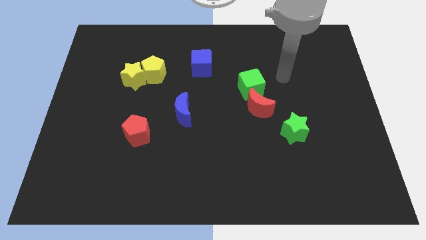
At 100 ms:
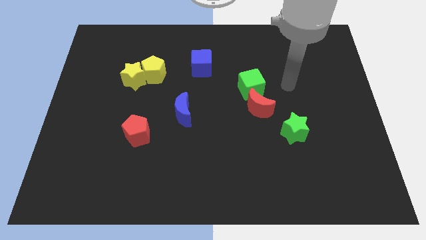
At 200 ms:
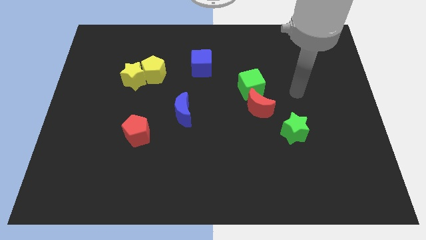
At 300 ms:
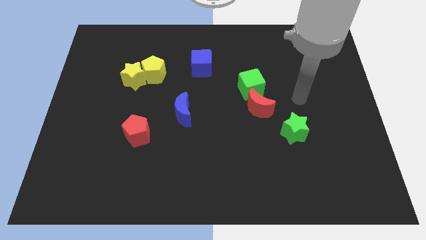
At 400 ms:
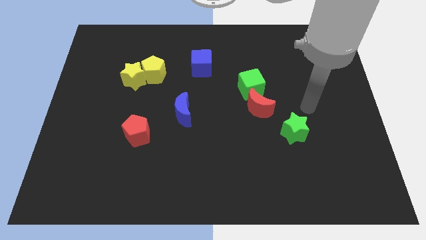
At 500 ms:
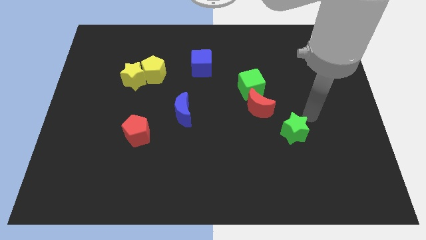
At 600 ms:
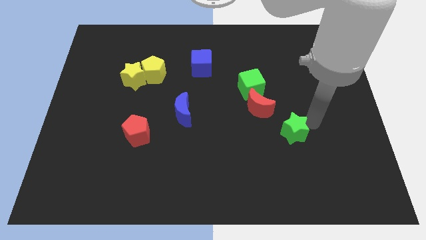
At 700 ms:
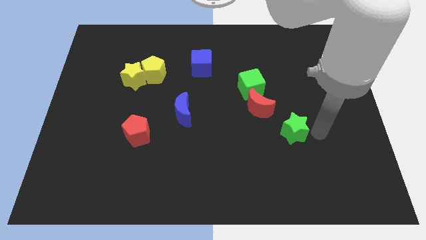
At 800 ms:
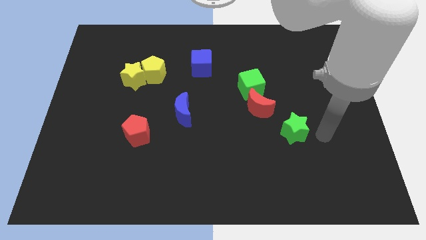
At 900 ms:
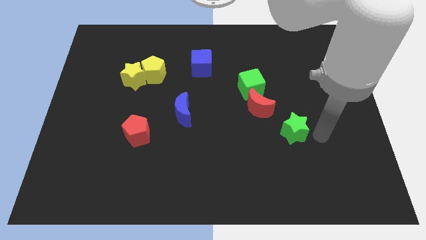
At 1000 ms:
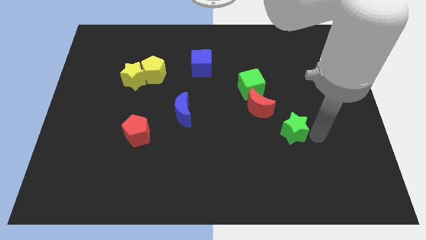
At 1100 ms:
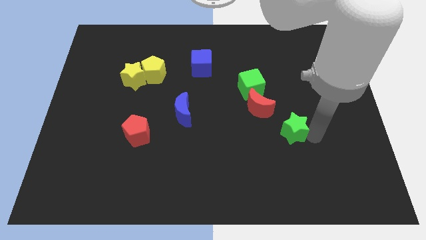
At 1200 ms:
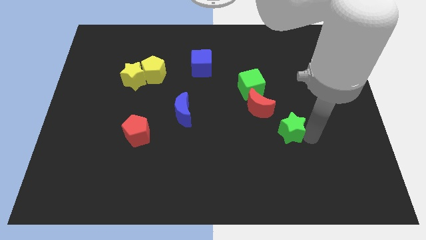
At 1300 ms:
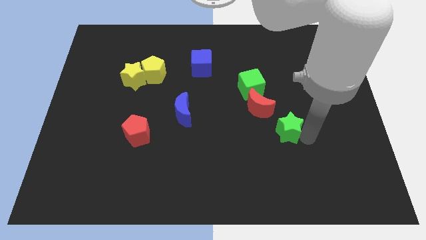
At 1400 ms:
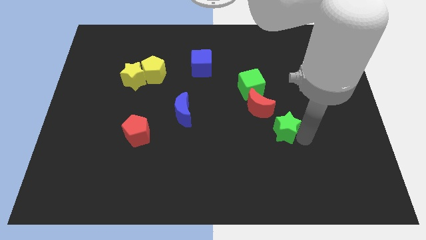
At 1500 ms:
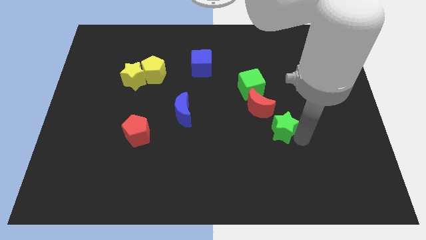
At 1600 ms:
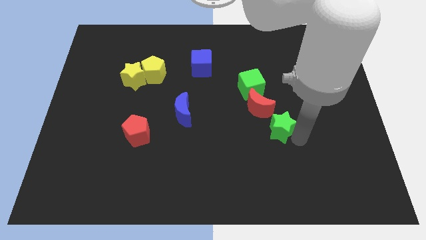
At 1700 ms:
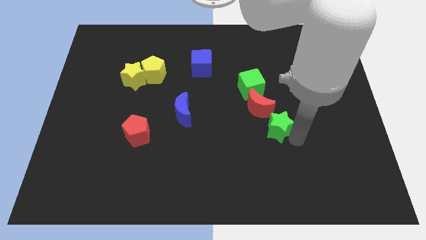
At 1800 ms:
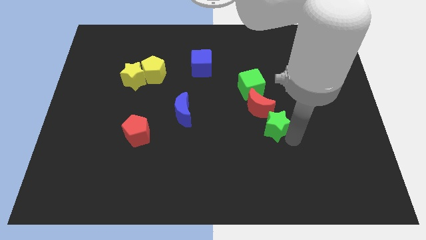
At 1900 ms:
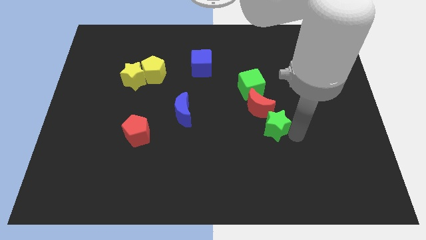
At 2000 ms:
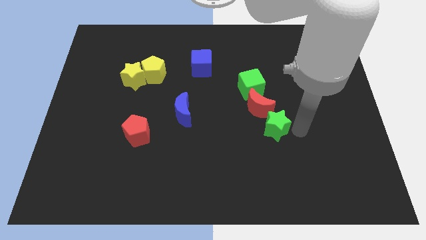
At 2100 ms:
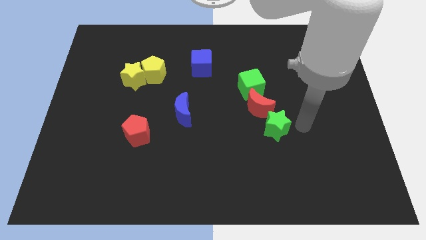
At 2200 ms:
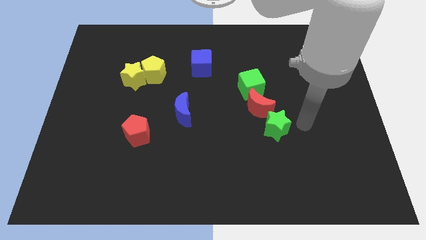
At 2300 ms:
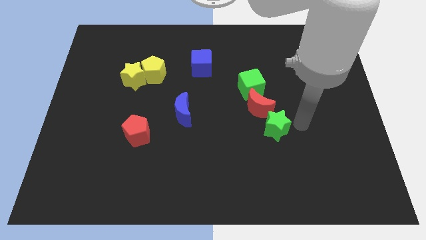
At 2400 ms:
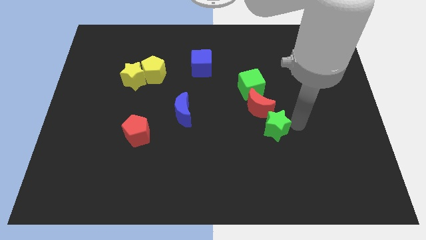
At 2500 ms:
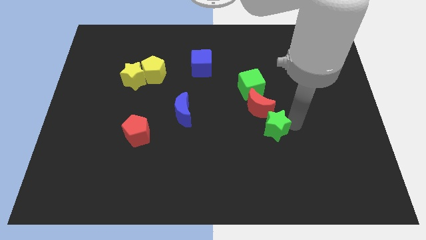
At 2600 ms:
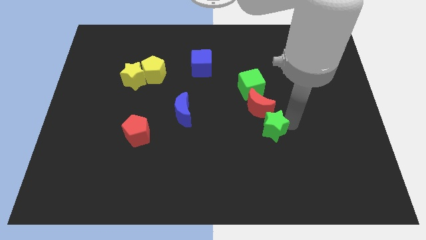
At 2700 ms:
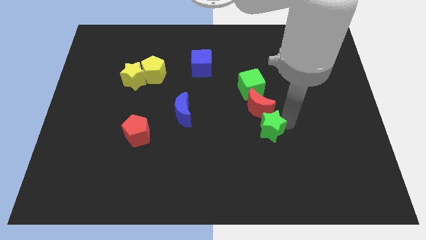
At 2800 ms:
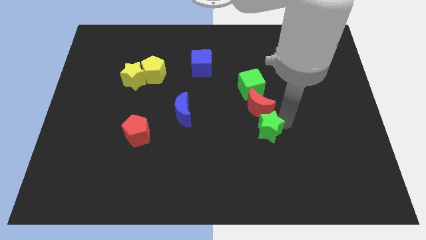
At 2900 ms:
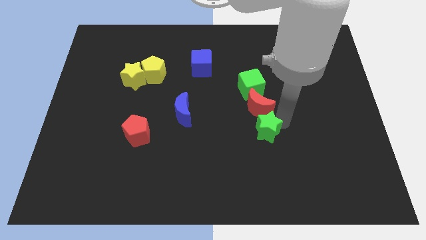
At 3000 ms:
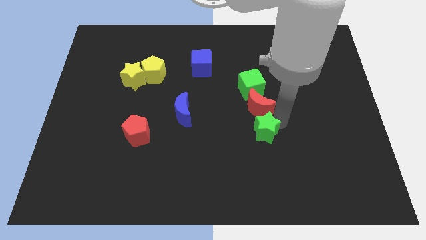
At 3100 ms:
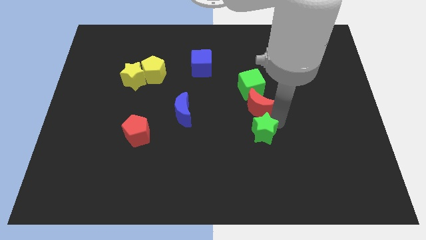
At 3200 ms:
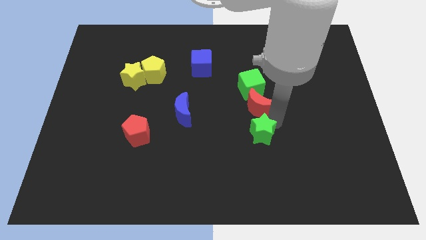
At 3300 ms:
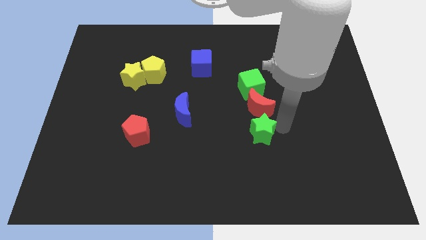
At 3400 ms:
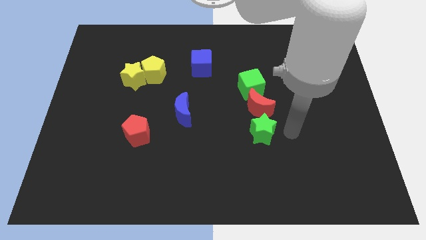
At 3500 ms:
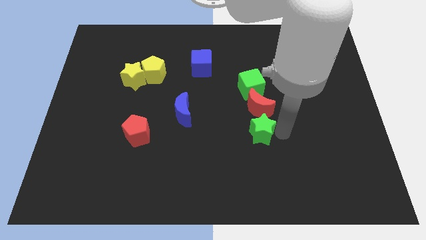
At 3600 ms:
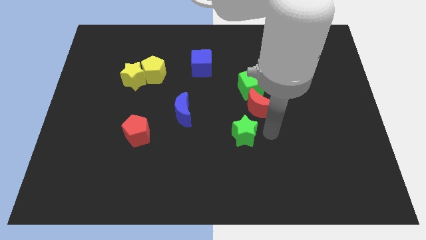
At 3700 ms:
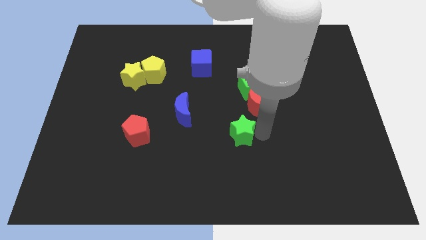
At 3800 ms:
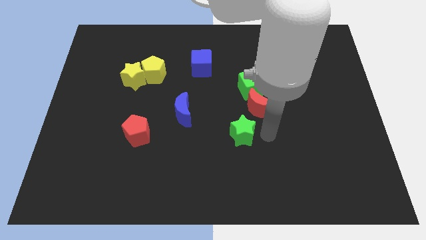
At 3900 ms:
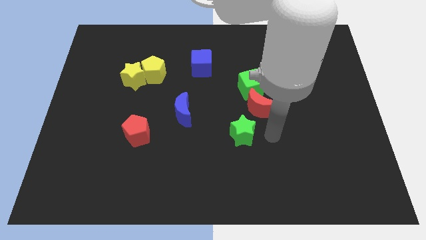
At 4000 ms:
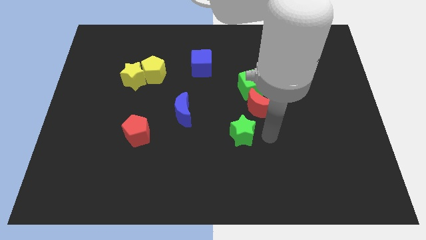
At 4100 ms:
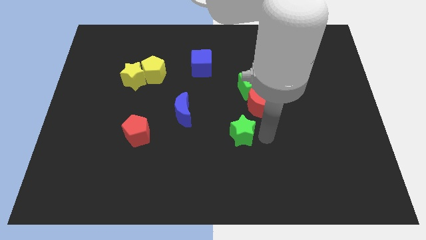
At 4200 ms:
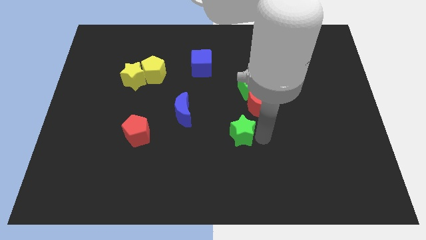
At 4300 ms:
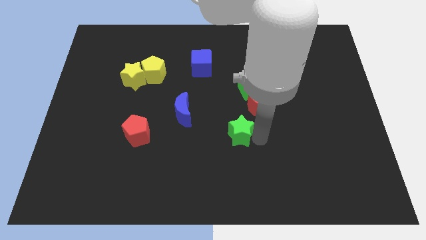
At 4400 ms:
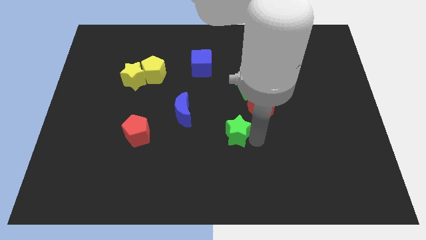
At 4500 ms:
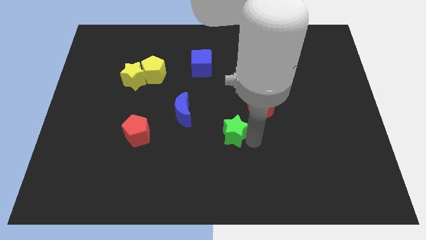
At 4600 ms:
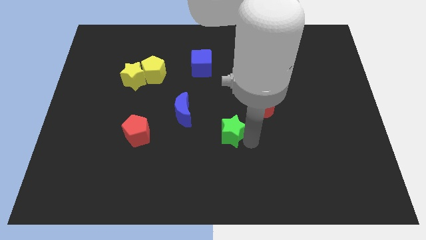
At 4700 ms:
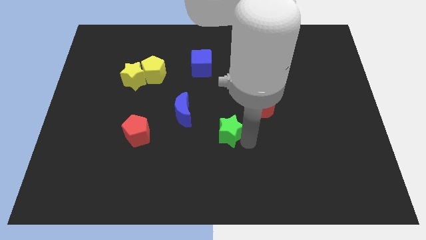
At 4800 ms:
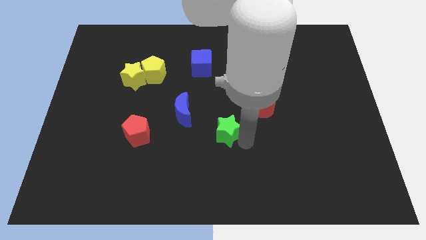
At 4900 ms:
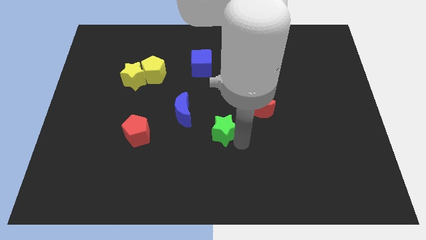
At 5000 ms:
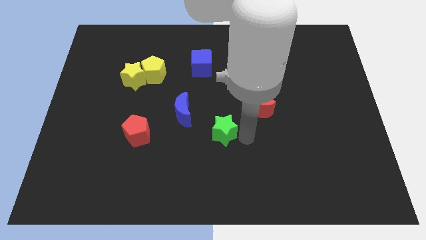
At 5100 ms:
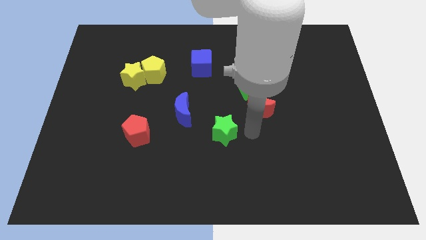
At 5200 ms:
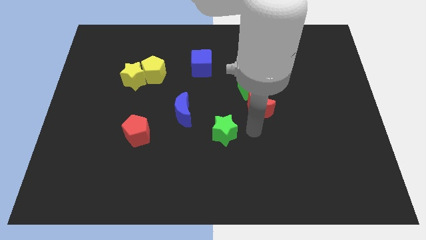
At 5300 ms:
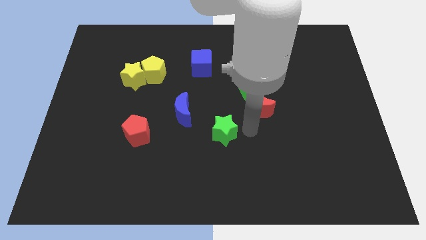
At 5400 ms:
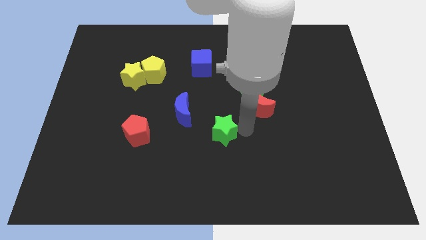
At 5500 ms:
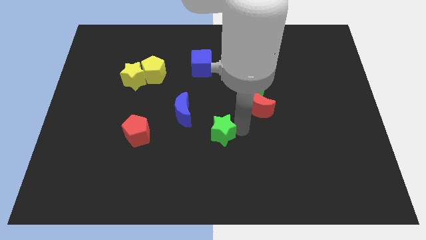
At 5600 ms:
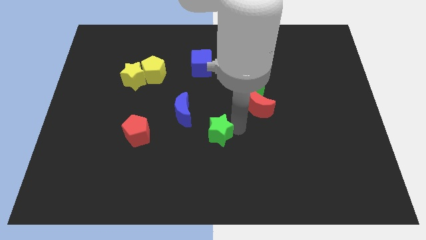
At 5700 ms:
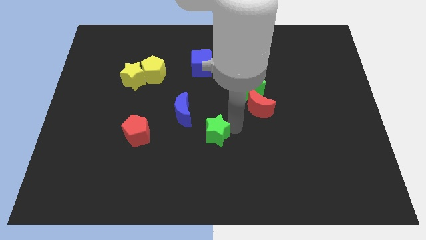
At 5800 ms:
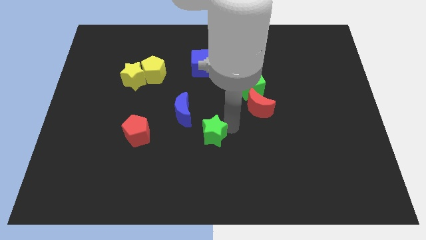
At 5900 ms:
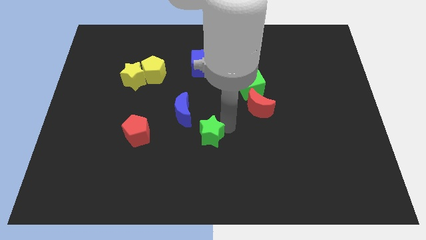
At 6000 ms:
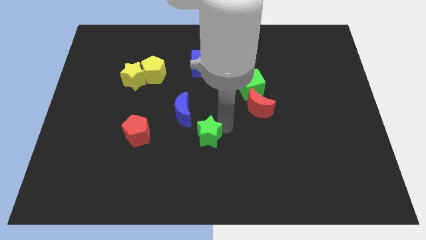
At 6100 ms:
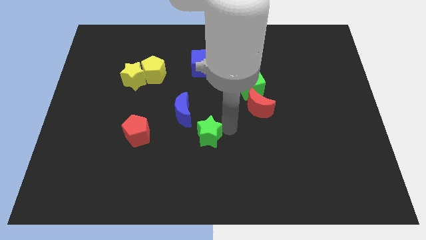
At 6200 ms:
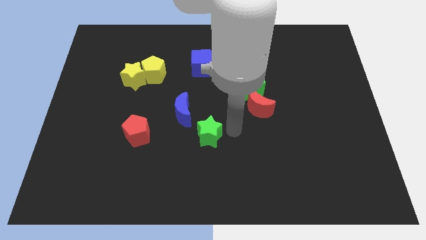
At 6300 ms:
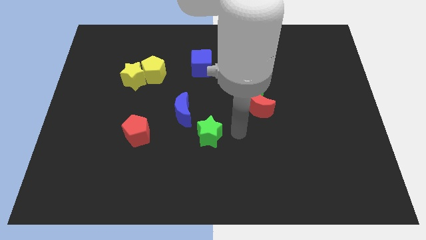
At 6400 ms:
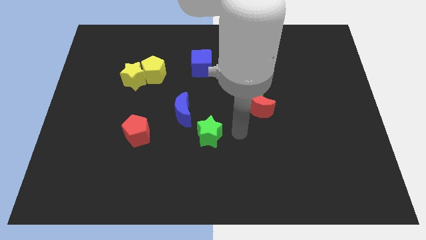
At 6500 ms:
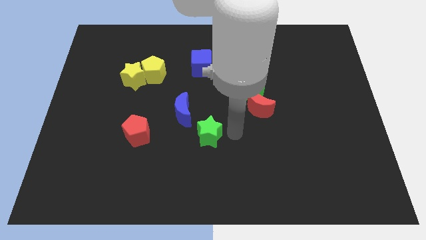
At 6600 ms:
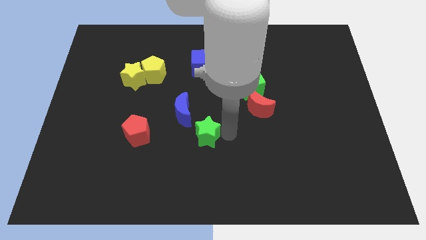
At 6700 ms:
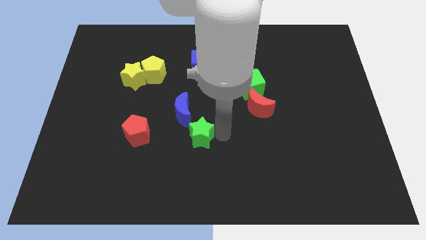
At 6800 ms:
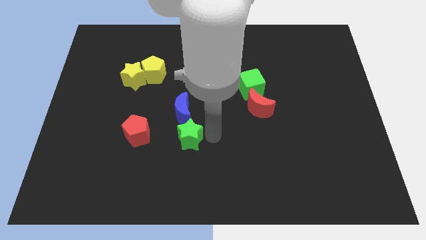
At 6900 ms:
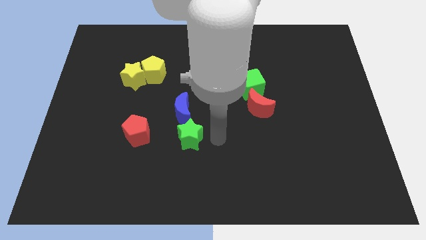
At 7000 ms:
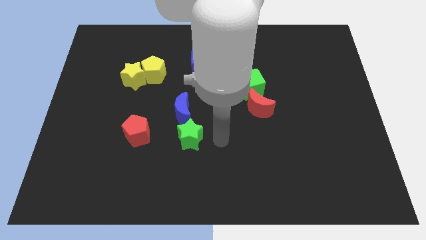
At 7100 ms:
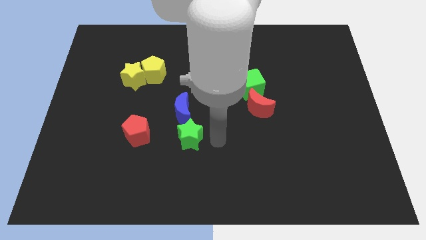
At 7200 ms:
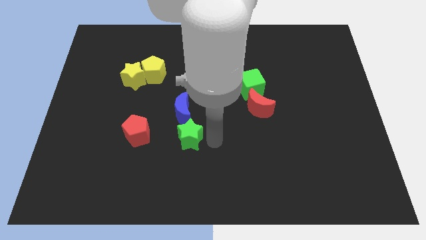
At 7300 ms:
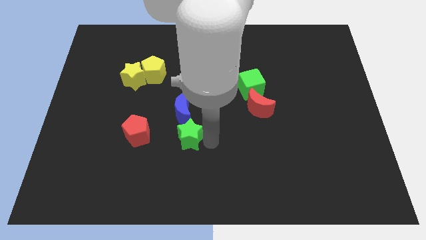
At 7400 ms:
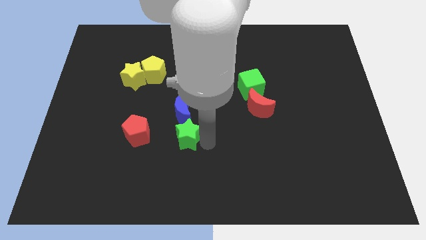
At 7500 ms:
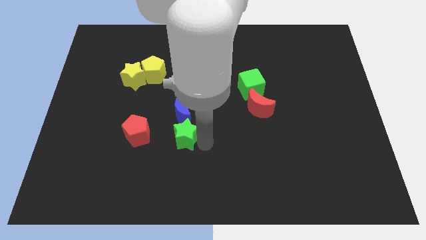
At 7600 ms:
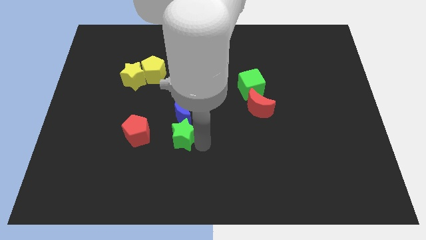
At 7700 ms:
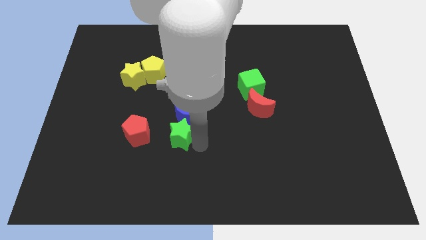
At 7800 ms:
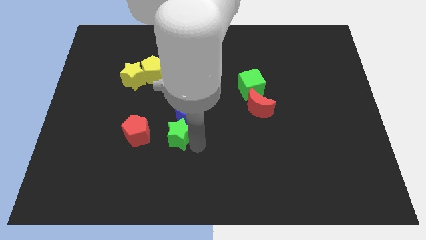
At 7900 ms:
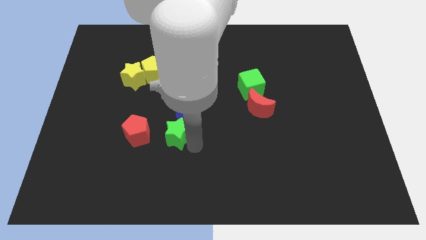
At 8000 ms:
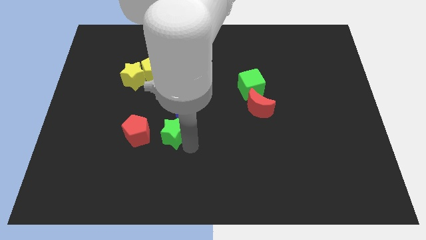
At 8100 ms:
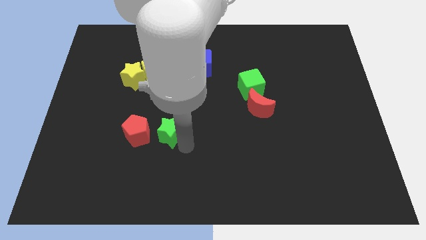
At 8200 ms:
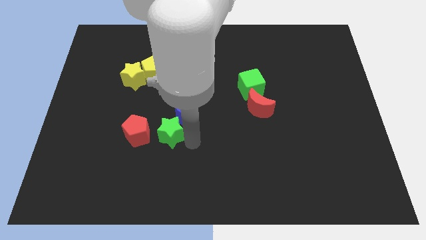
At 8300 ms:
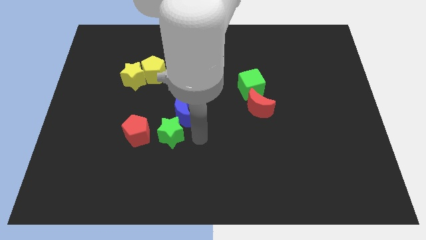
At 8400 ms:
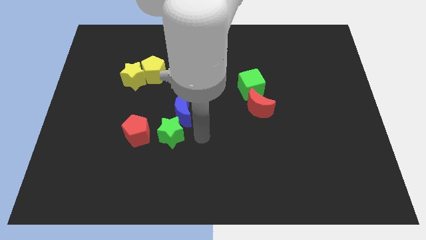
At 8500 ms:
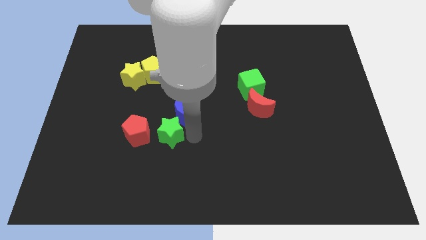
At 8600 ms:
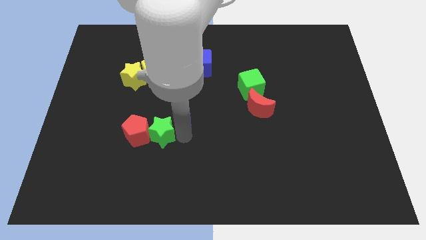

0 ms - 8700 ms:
move the green star towards the red pentagon
